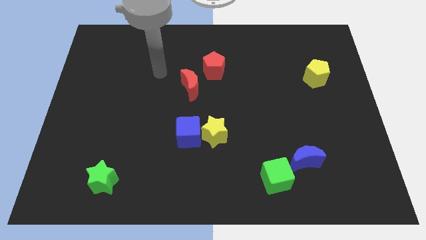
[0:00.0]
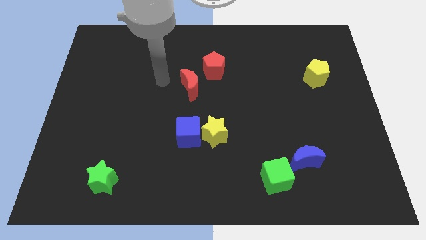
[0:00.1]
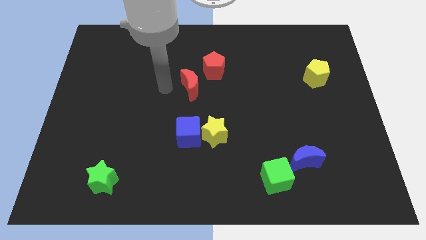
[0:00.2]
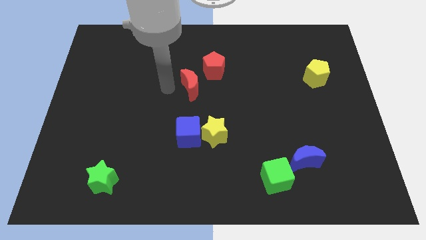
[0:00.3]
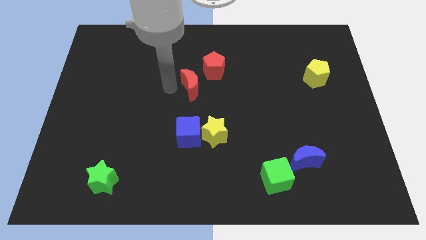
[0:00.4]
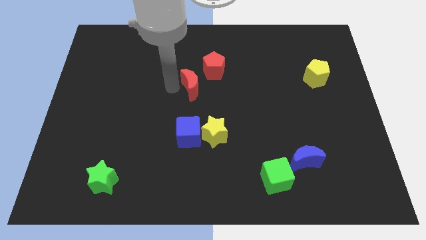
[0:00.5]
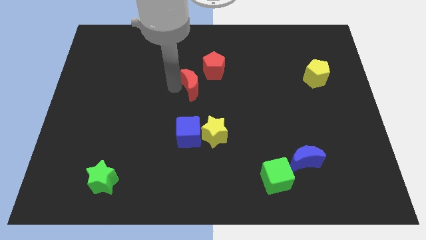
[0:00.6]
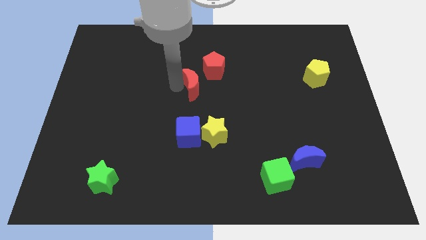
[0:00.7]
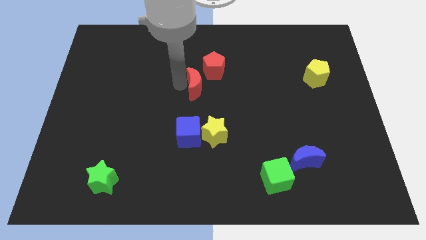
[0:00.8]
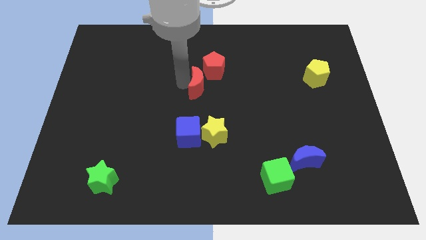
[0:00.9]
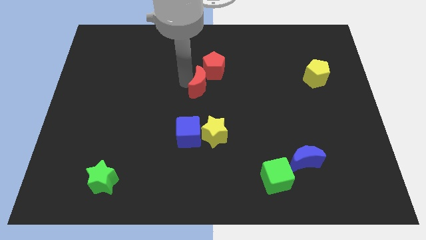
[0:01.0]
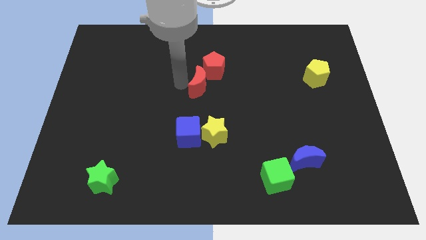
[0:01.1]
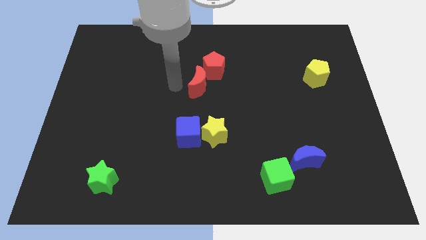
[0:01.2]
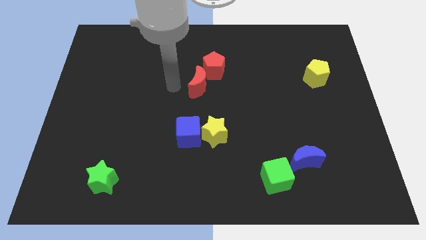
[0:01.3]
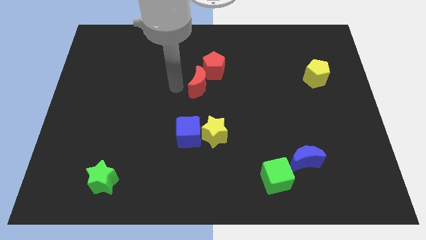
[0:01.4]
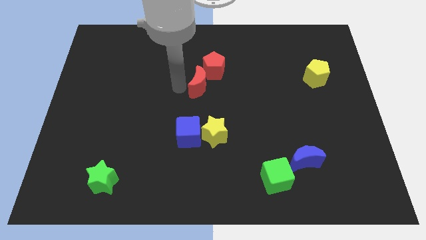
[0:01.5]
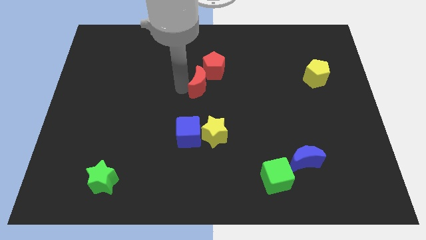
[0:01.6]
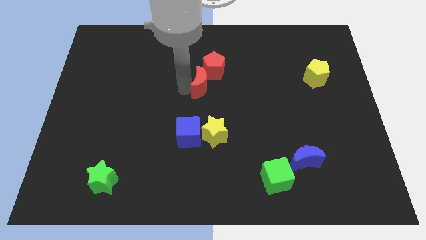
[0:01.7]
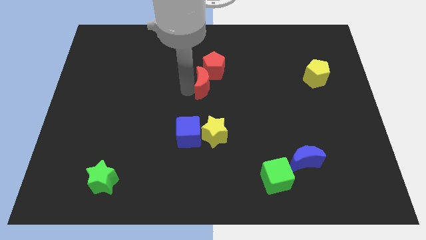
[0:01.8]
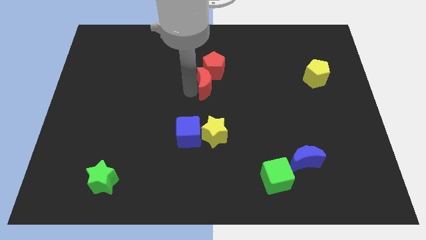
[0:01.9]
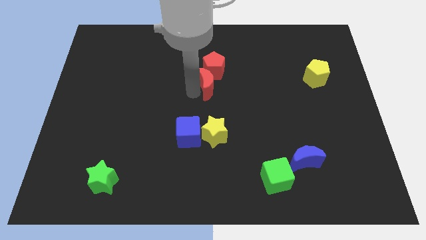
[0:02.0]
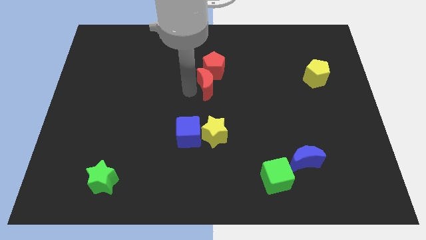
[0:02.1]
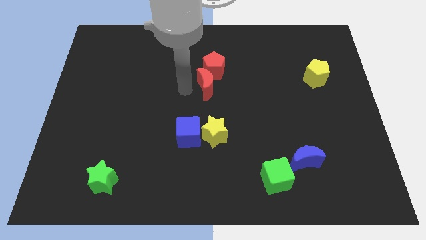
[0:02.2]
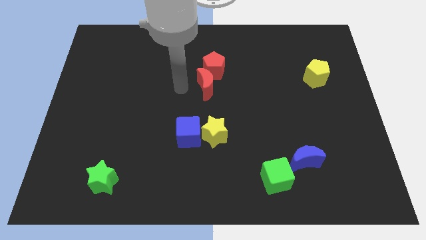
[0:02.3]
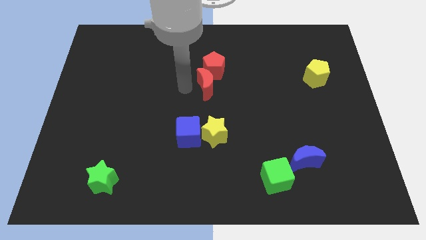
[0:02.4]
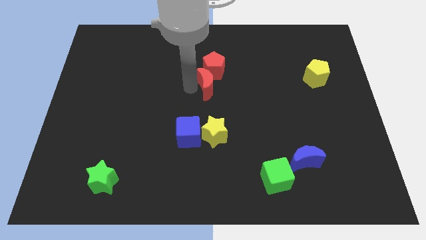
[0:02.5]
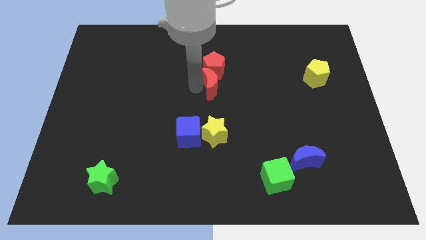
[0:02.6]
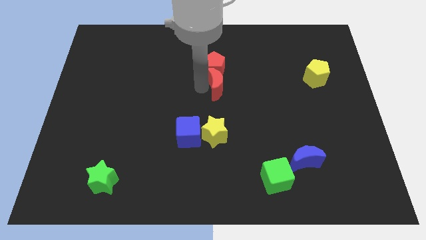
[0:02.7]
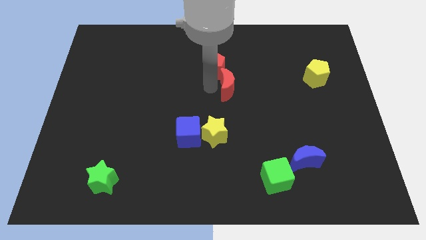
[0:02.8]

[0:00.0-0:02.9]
push the red moon slightly right

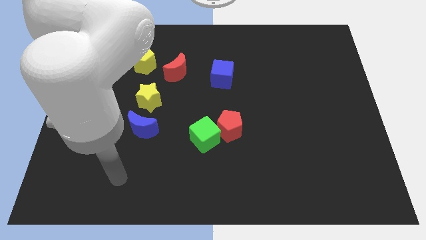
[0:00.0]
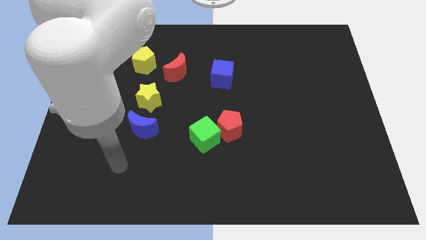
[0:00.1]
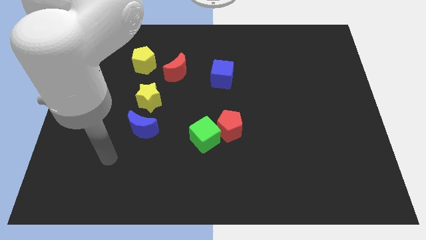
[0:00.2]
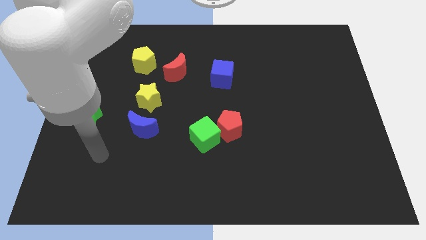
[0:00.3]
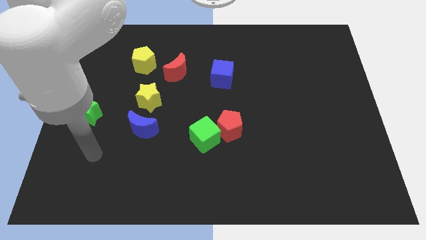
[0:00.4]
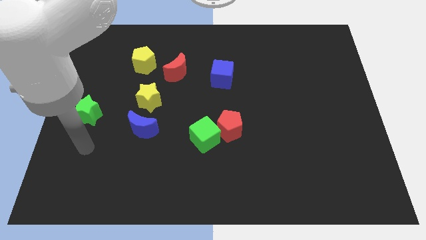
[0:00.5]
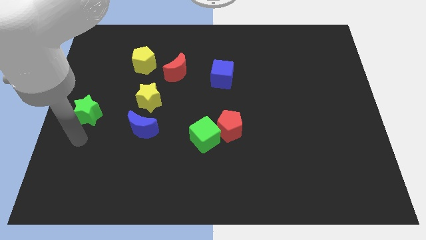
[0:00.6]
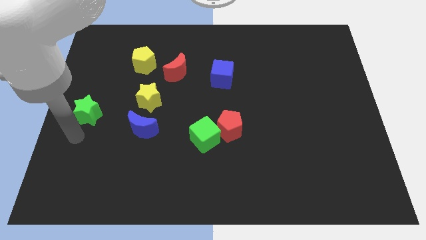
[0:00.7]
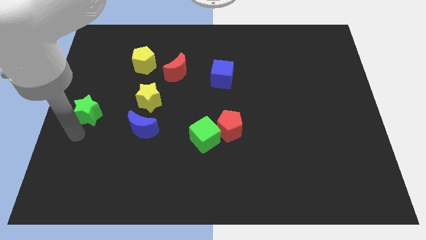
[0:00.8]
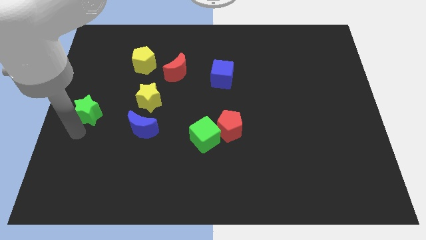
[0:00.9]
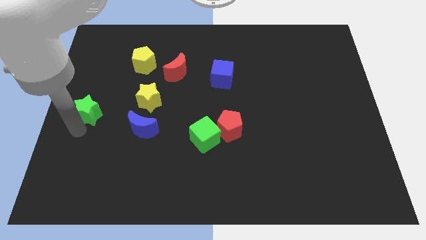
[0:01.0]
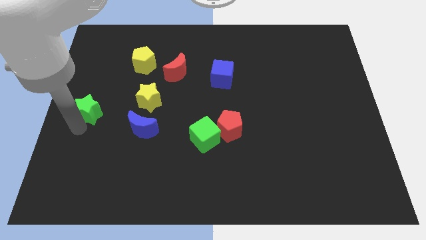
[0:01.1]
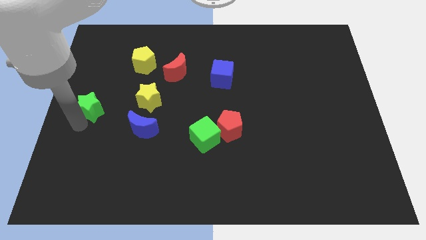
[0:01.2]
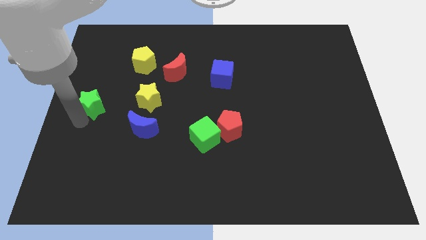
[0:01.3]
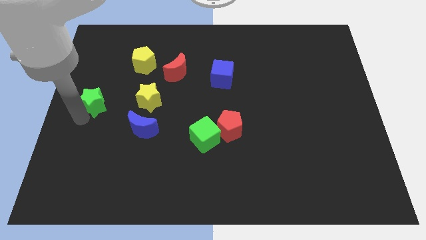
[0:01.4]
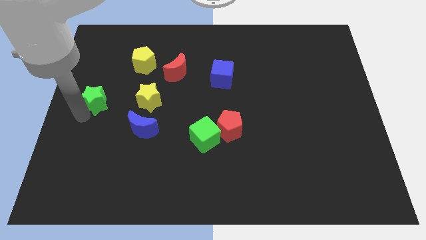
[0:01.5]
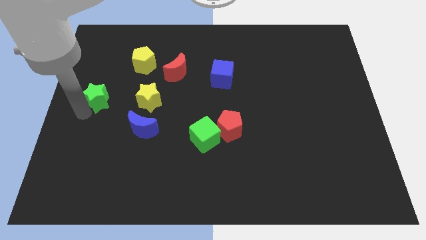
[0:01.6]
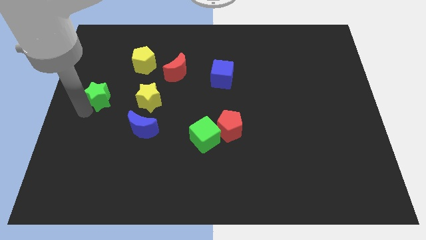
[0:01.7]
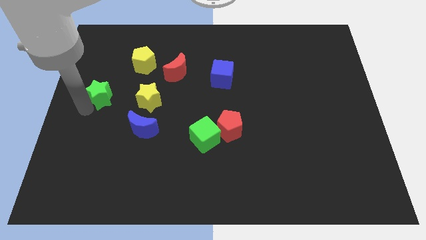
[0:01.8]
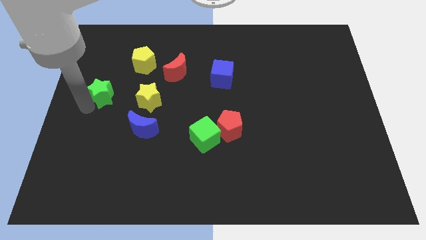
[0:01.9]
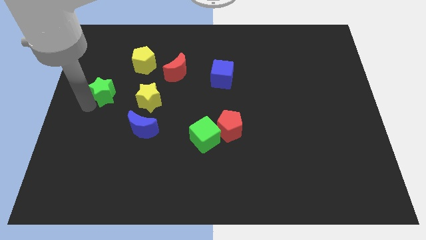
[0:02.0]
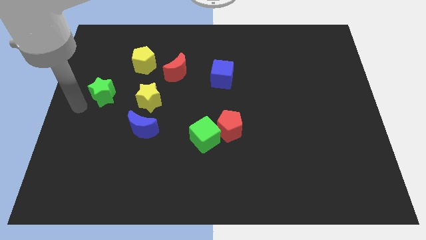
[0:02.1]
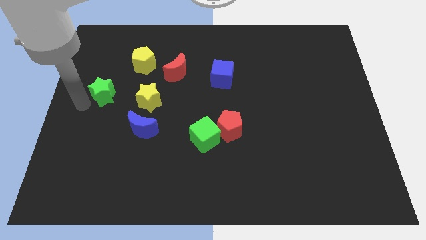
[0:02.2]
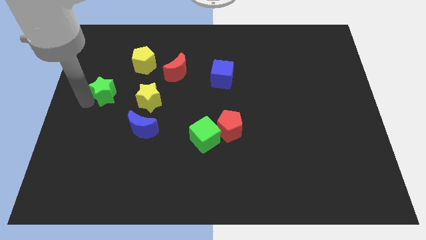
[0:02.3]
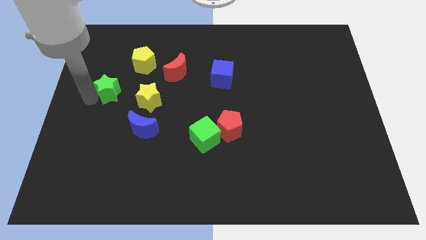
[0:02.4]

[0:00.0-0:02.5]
slide the green star diagonally upwards and to the right a little bit

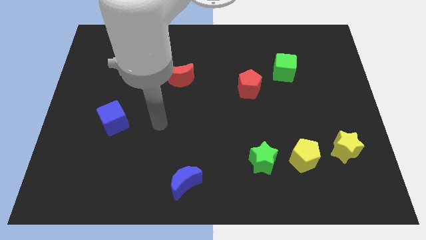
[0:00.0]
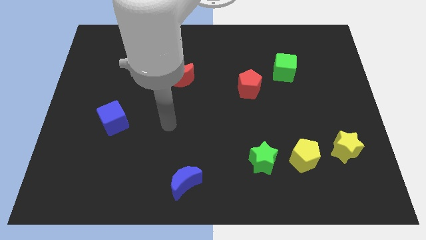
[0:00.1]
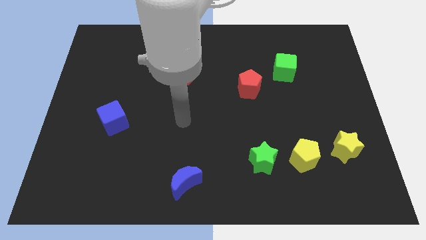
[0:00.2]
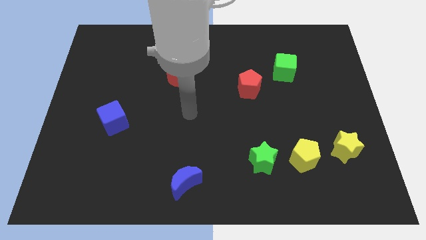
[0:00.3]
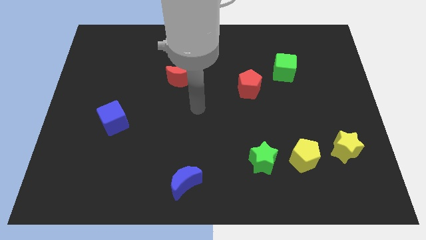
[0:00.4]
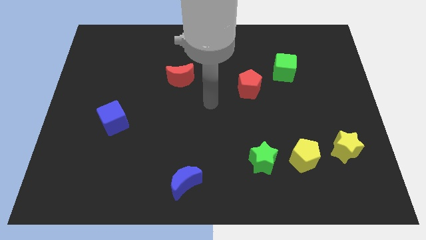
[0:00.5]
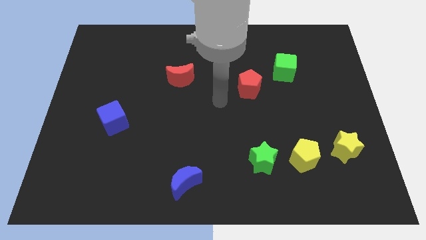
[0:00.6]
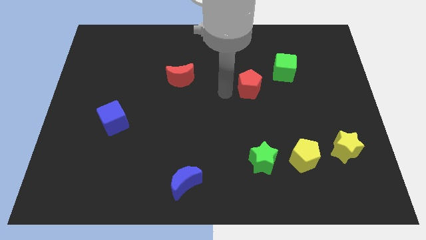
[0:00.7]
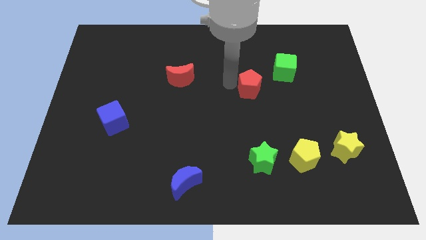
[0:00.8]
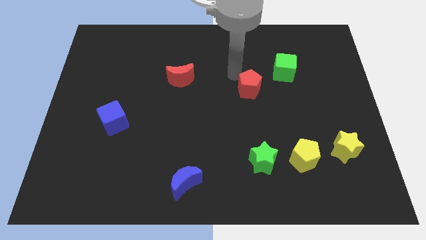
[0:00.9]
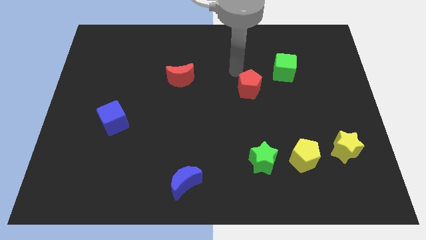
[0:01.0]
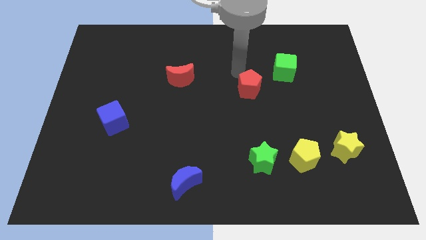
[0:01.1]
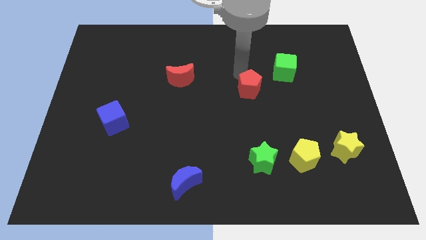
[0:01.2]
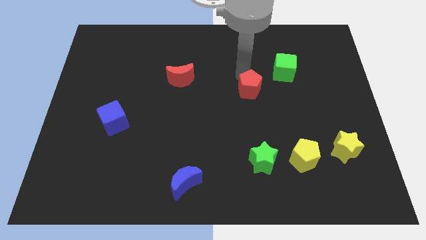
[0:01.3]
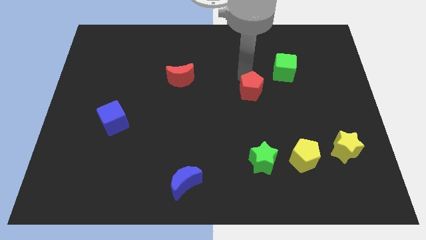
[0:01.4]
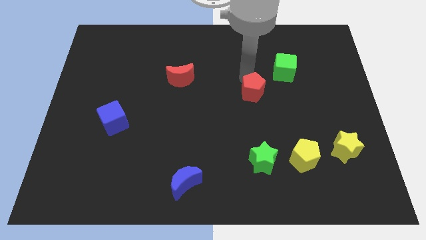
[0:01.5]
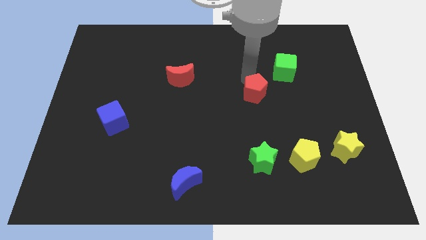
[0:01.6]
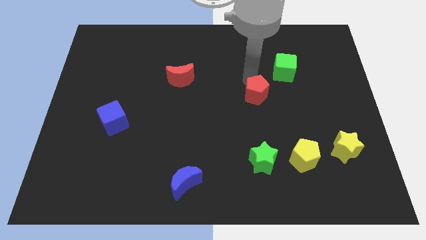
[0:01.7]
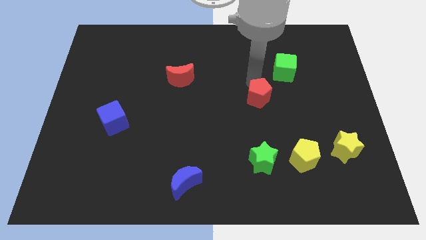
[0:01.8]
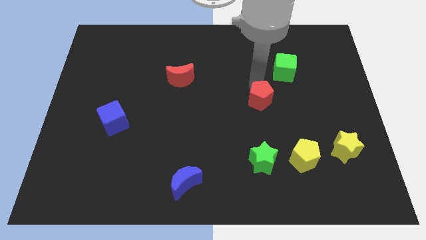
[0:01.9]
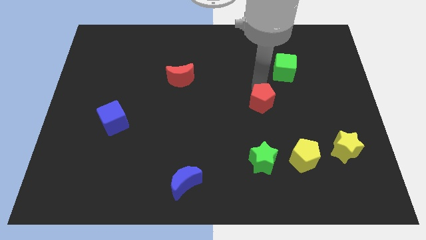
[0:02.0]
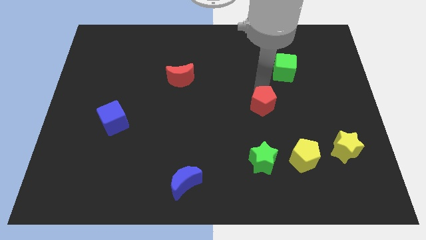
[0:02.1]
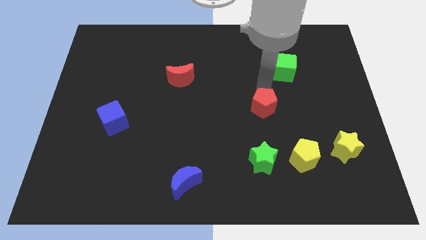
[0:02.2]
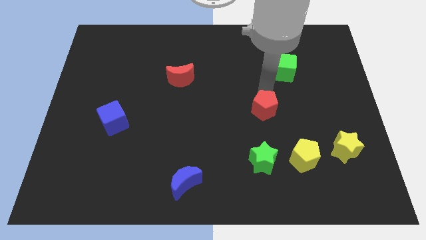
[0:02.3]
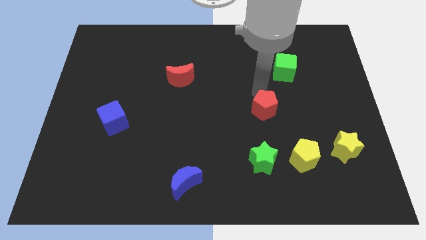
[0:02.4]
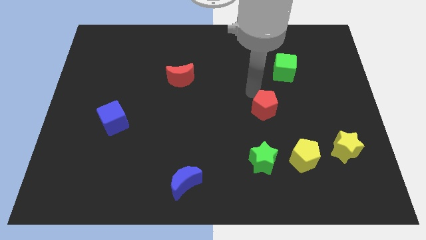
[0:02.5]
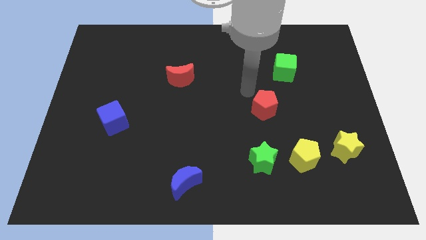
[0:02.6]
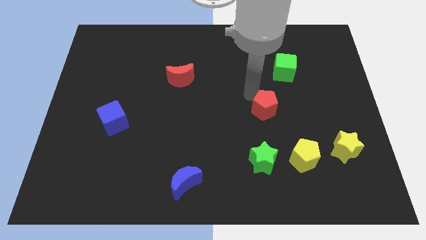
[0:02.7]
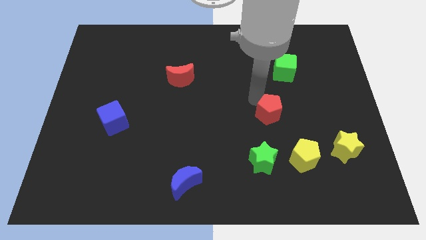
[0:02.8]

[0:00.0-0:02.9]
slide the red pentagon a little downwards and to the right
